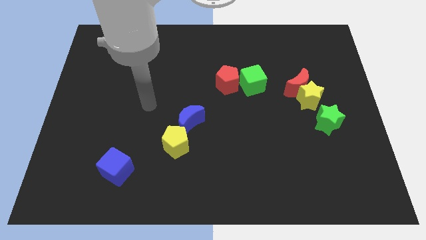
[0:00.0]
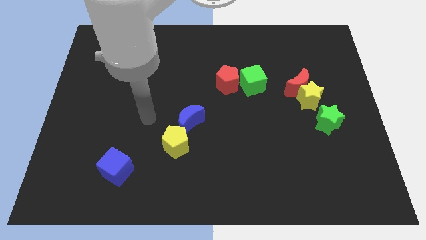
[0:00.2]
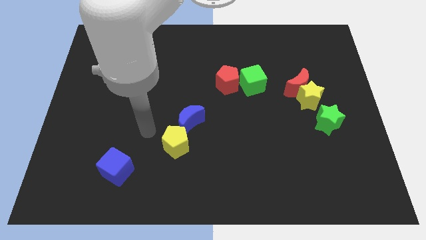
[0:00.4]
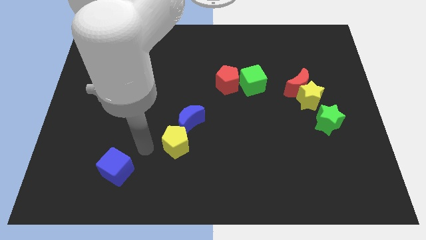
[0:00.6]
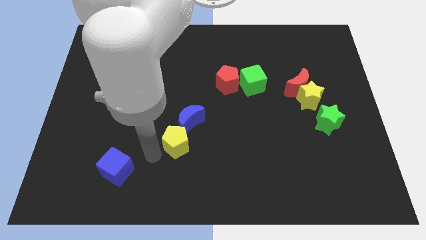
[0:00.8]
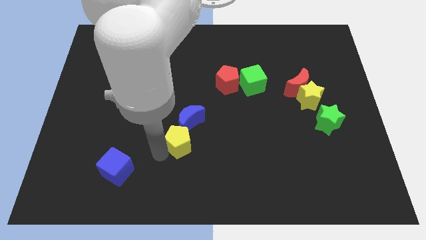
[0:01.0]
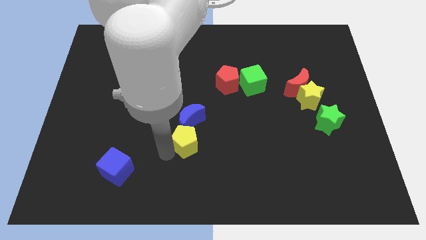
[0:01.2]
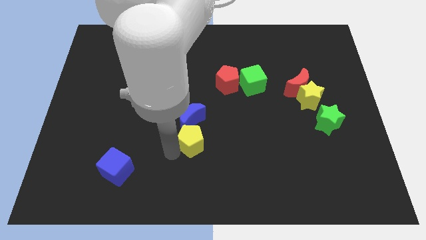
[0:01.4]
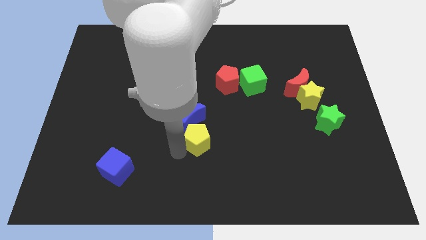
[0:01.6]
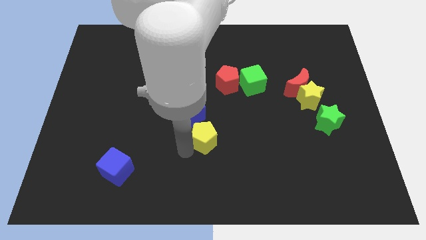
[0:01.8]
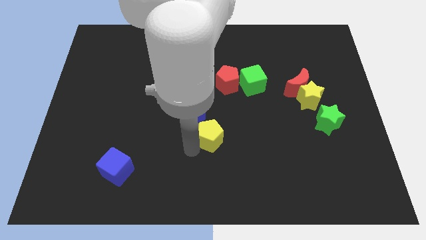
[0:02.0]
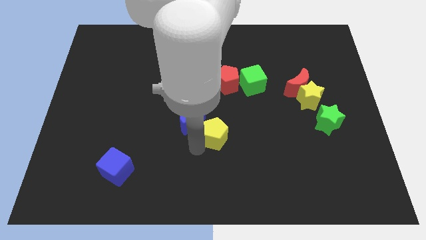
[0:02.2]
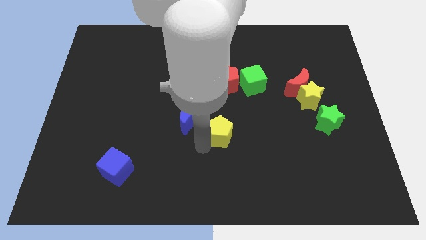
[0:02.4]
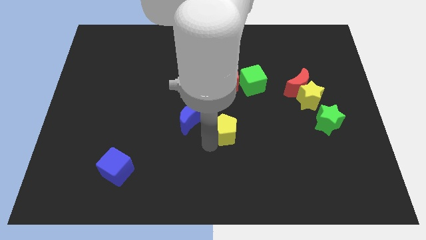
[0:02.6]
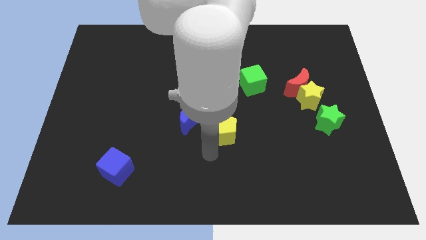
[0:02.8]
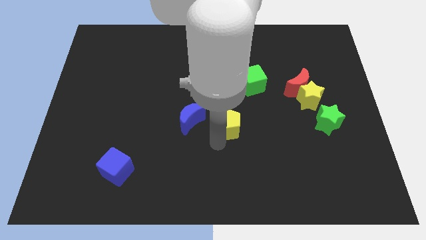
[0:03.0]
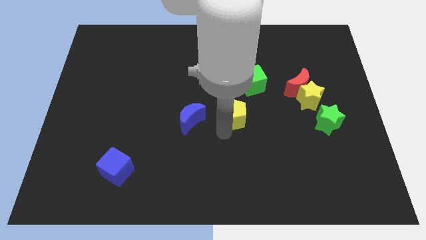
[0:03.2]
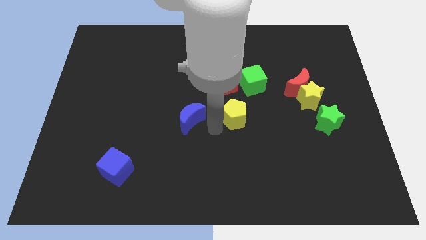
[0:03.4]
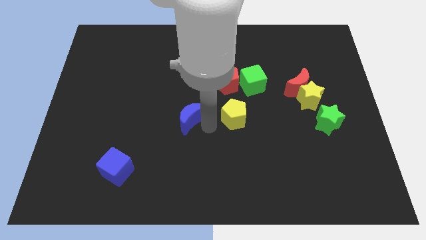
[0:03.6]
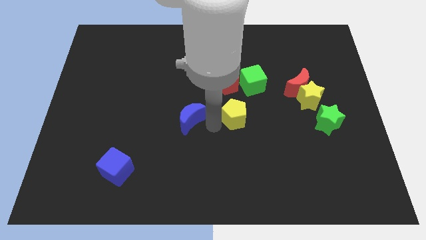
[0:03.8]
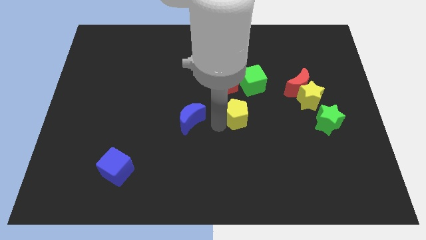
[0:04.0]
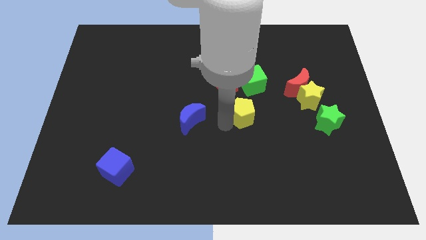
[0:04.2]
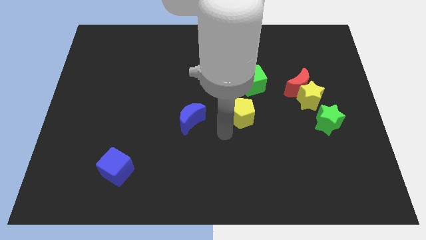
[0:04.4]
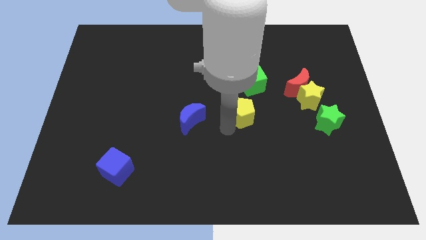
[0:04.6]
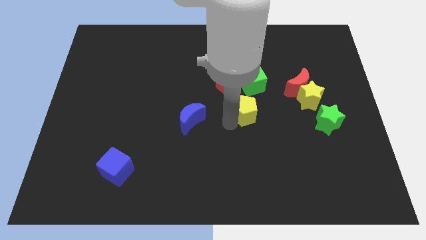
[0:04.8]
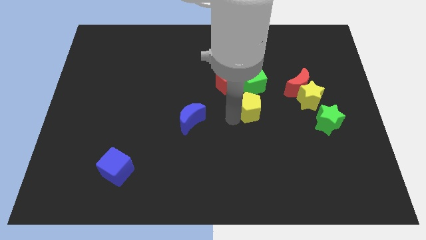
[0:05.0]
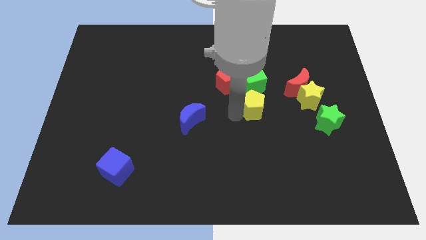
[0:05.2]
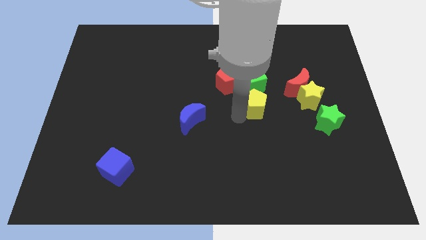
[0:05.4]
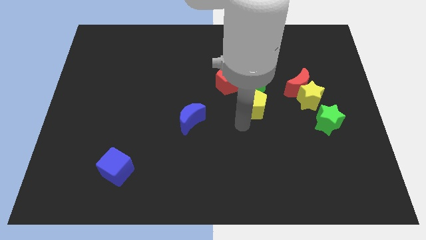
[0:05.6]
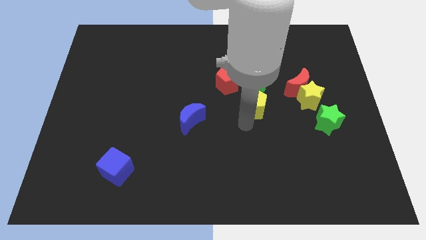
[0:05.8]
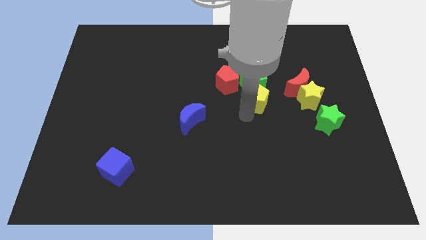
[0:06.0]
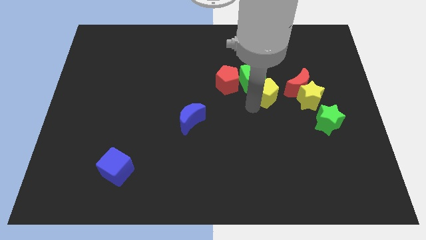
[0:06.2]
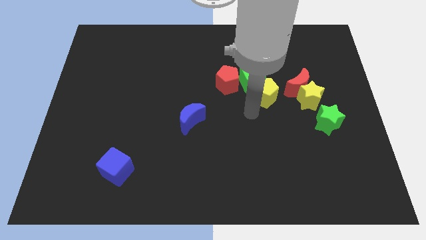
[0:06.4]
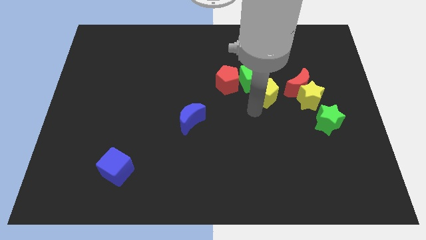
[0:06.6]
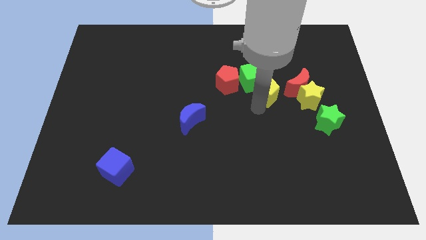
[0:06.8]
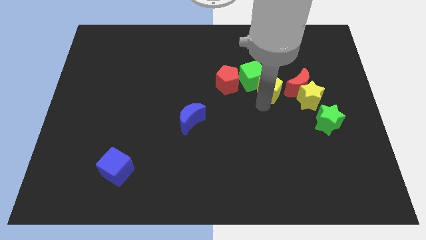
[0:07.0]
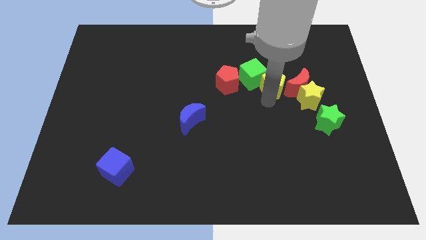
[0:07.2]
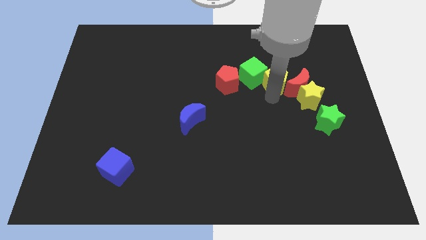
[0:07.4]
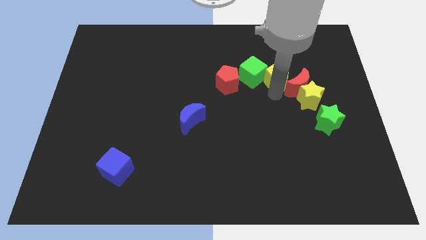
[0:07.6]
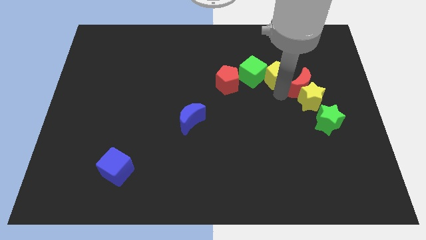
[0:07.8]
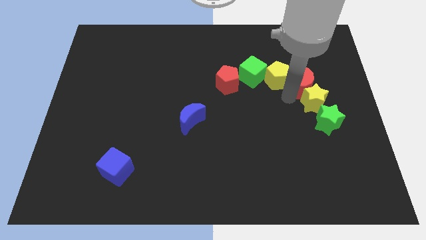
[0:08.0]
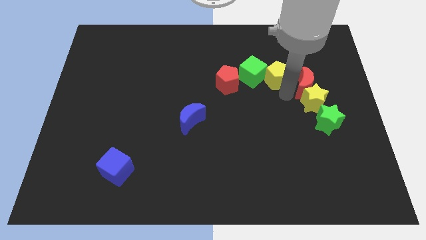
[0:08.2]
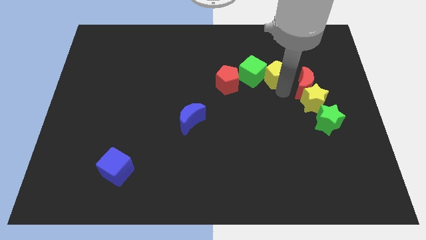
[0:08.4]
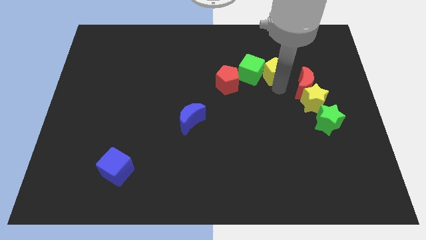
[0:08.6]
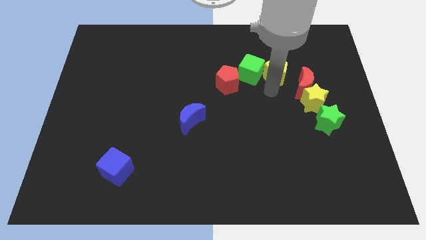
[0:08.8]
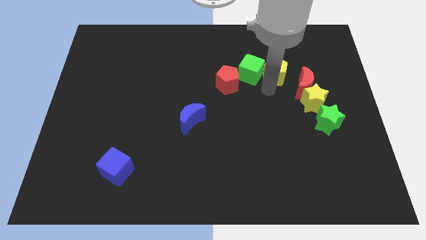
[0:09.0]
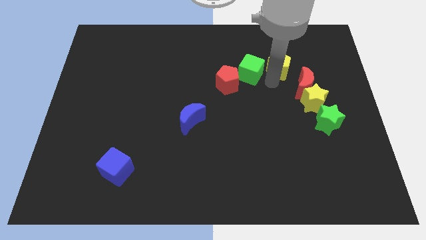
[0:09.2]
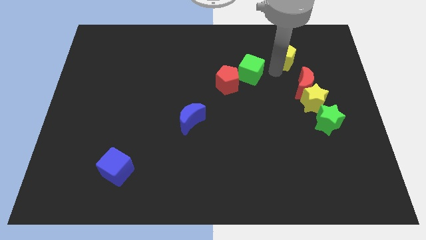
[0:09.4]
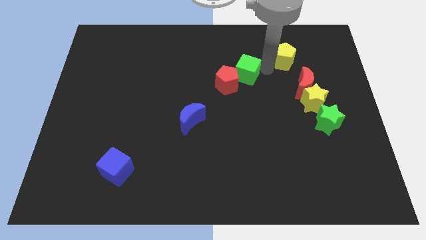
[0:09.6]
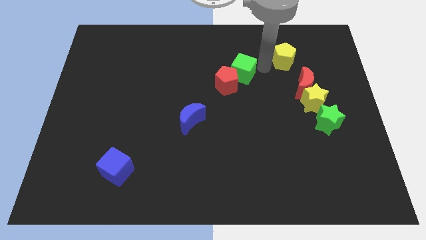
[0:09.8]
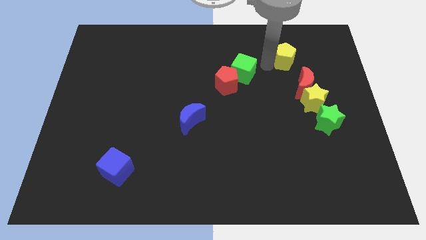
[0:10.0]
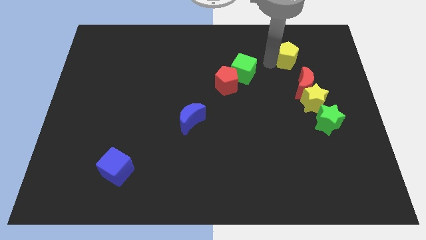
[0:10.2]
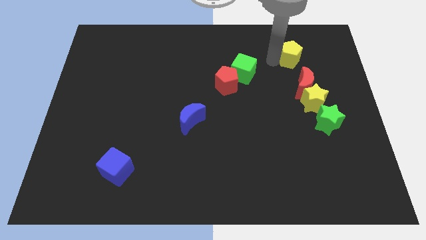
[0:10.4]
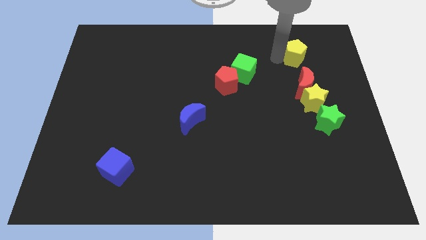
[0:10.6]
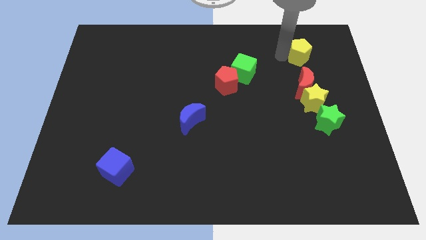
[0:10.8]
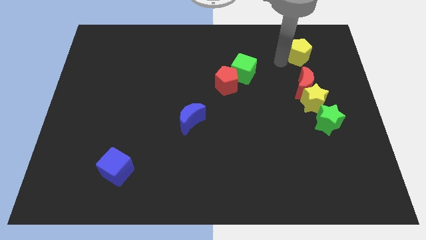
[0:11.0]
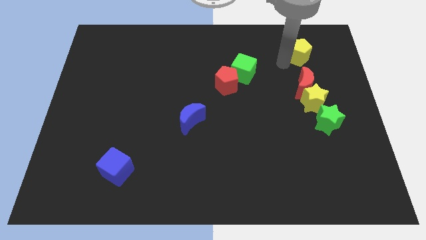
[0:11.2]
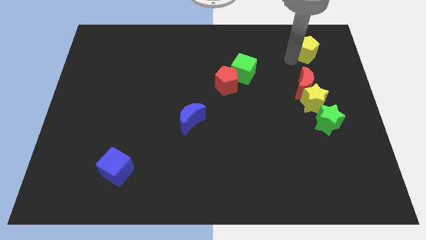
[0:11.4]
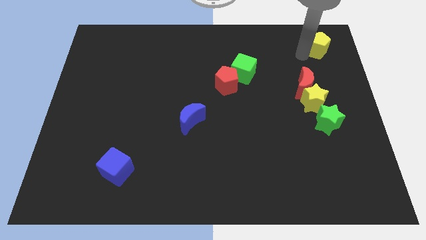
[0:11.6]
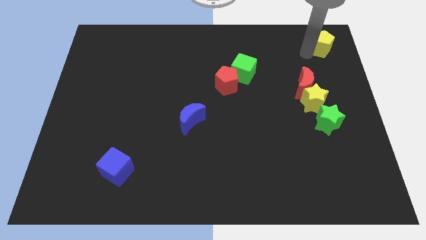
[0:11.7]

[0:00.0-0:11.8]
put the yellow pentagon to the upper right corner
